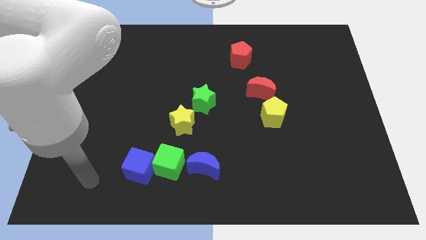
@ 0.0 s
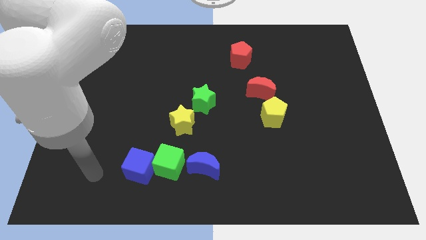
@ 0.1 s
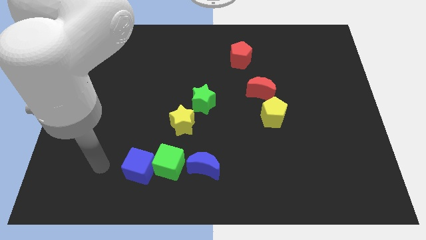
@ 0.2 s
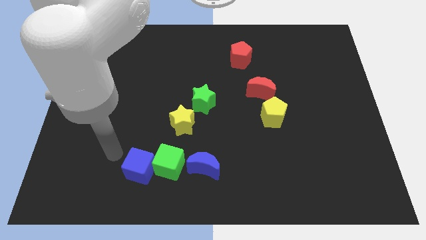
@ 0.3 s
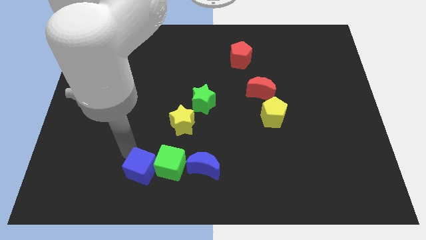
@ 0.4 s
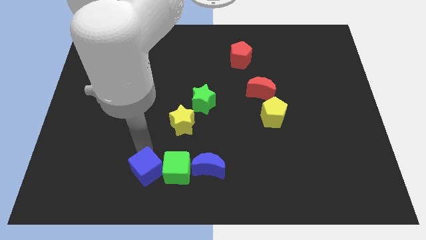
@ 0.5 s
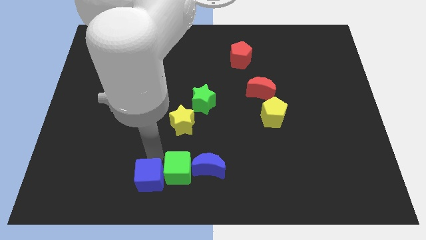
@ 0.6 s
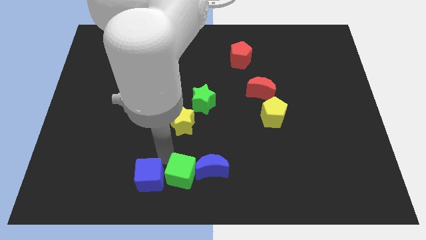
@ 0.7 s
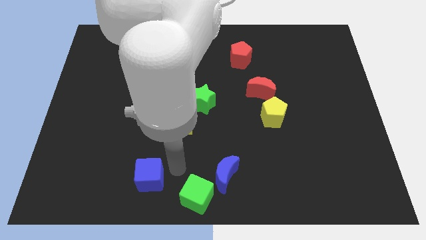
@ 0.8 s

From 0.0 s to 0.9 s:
pull the blue cube apart from the green cube

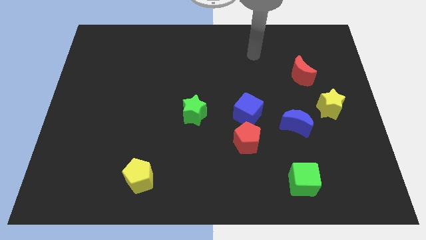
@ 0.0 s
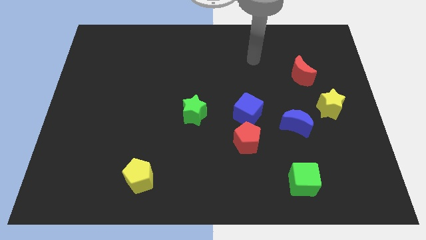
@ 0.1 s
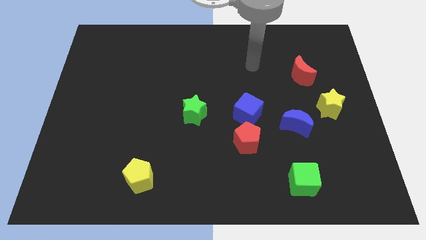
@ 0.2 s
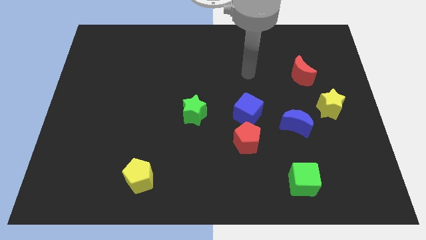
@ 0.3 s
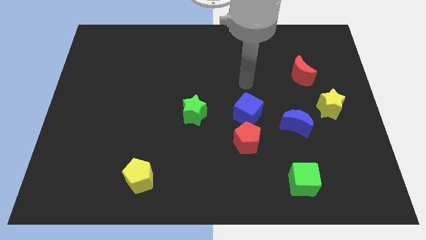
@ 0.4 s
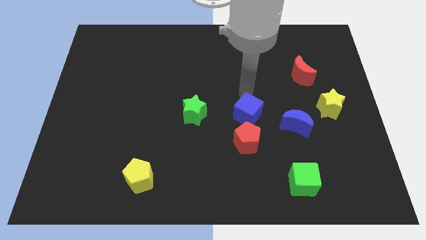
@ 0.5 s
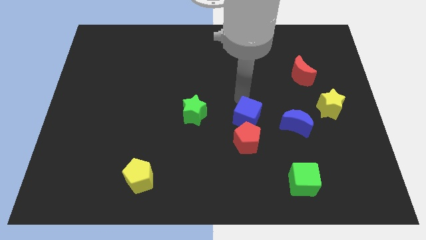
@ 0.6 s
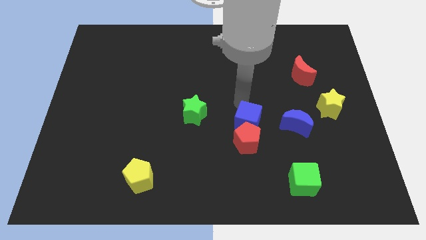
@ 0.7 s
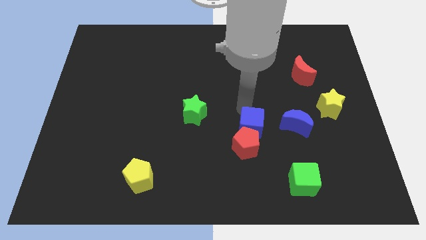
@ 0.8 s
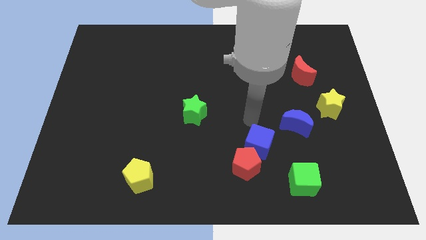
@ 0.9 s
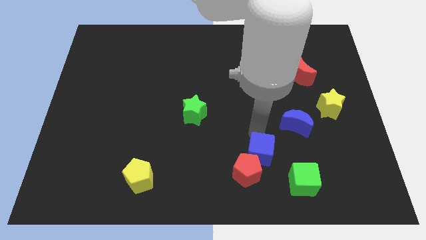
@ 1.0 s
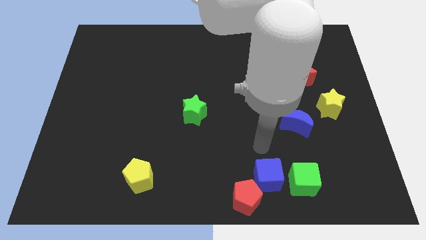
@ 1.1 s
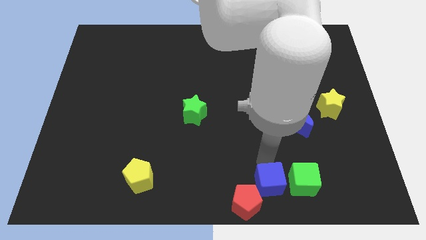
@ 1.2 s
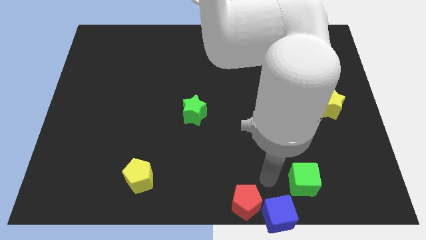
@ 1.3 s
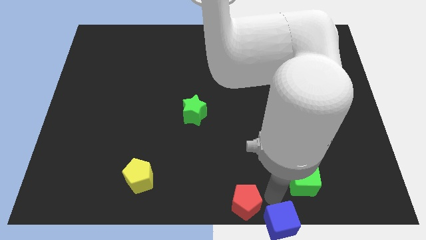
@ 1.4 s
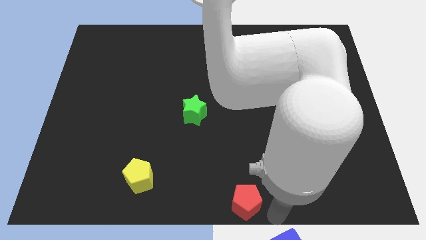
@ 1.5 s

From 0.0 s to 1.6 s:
separate the red pentagon from the blue cube

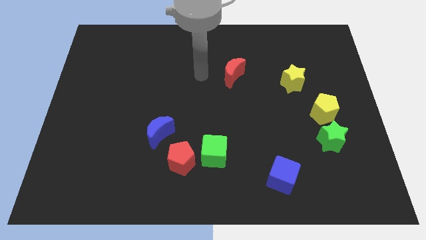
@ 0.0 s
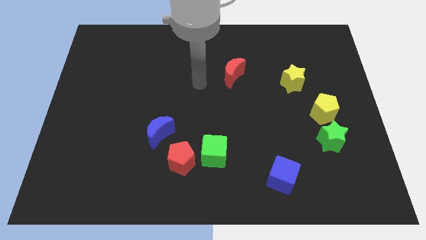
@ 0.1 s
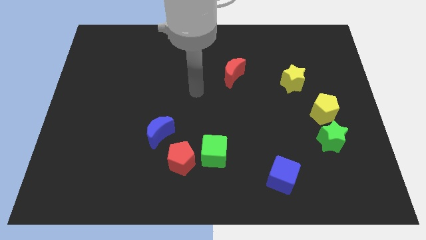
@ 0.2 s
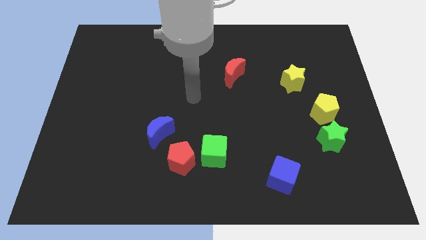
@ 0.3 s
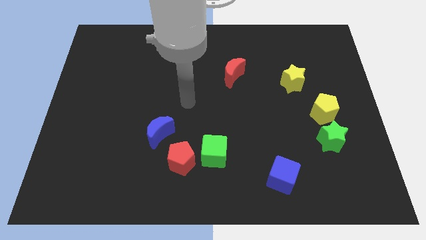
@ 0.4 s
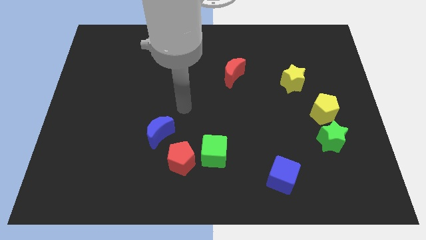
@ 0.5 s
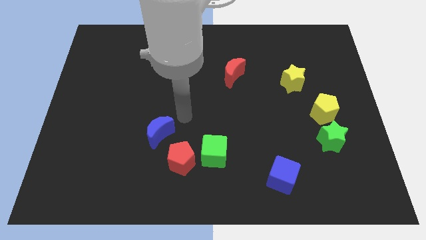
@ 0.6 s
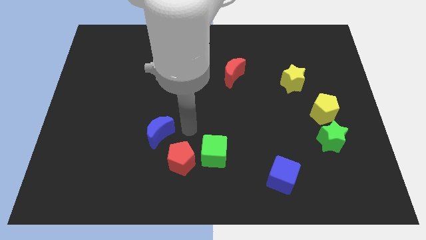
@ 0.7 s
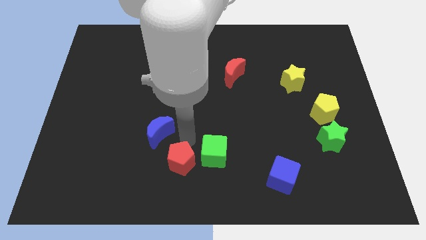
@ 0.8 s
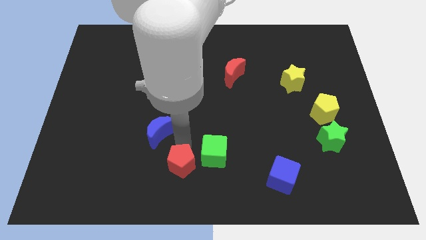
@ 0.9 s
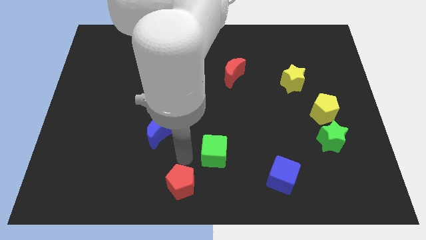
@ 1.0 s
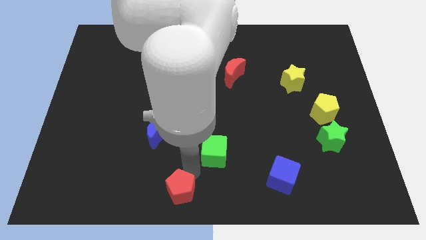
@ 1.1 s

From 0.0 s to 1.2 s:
move the green cube away from the red pentagon

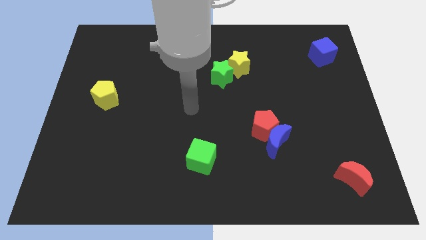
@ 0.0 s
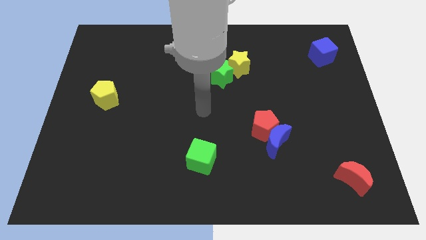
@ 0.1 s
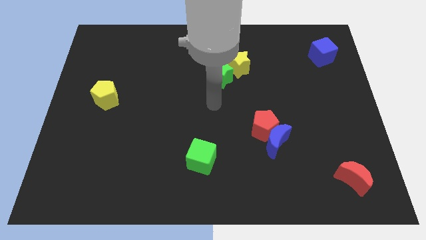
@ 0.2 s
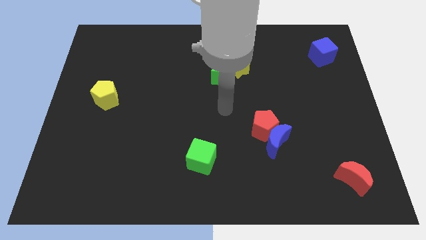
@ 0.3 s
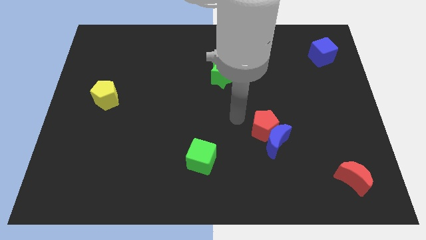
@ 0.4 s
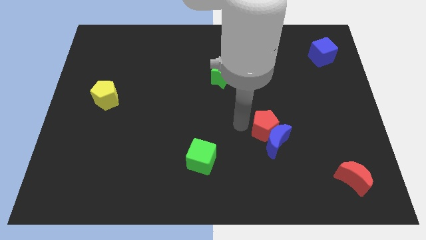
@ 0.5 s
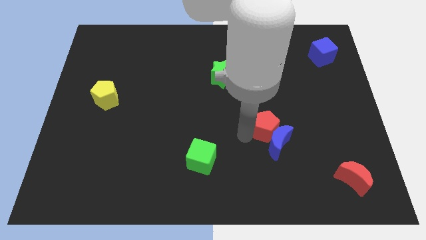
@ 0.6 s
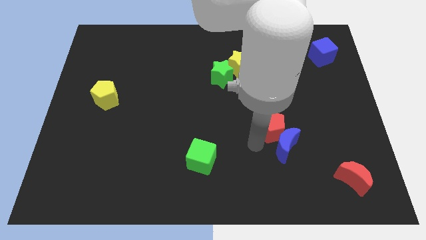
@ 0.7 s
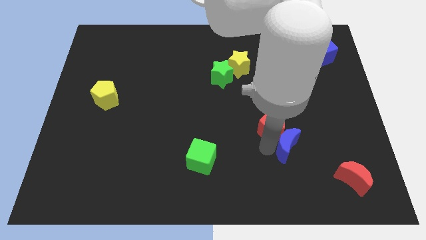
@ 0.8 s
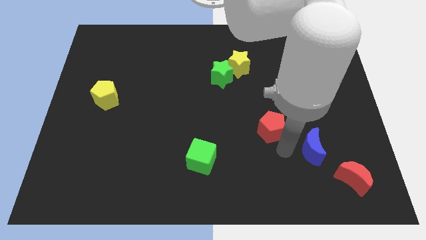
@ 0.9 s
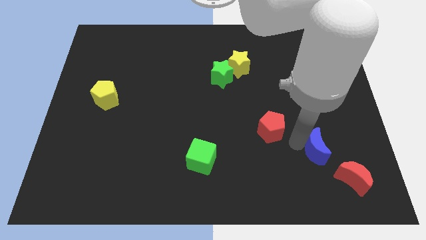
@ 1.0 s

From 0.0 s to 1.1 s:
pull the red pentagon apart from the blue moon

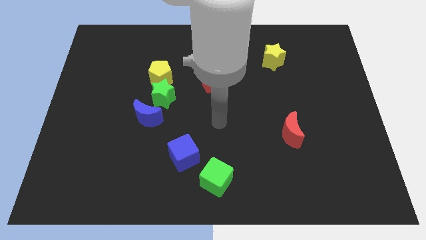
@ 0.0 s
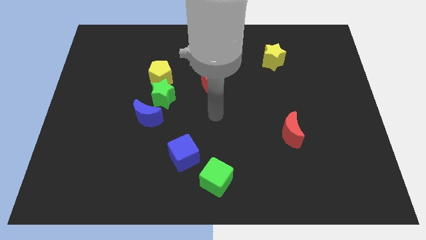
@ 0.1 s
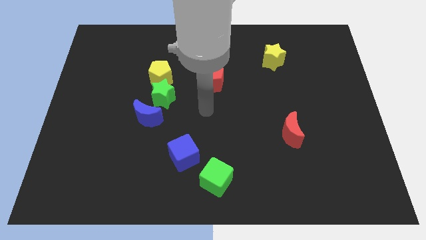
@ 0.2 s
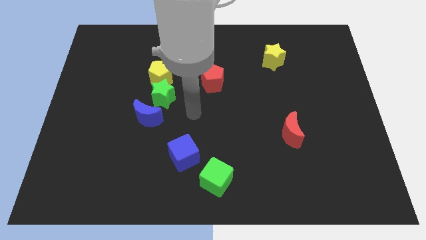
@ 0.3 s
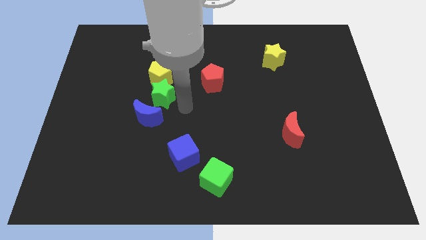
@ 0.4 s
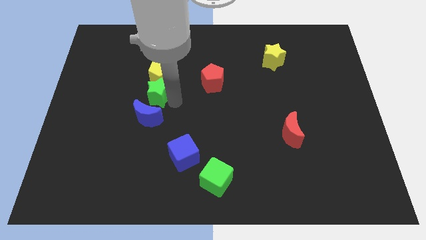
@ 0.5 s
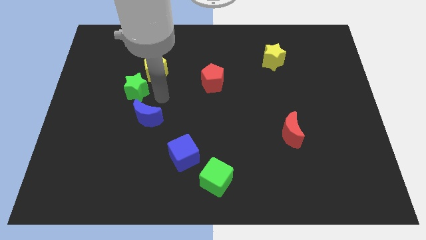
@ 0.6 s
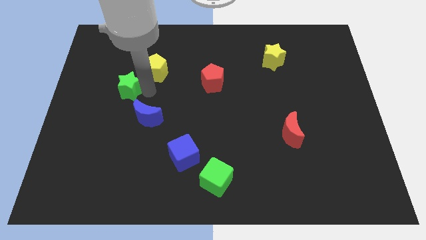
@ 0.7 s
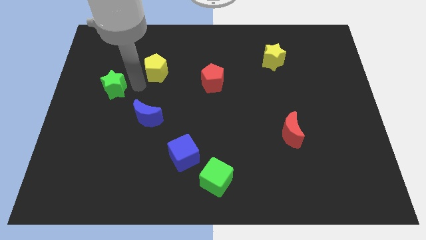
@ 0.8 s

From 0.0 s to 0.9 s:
pull the yellow pentagon apart from the green star

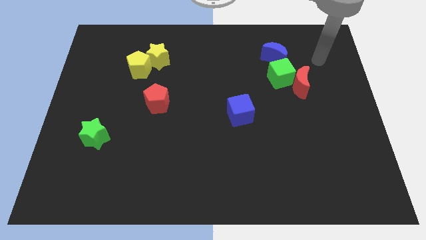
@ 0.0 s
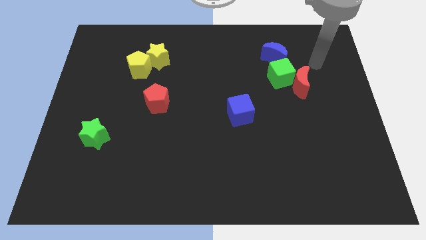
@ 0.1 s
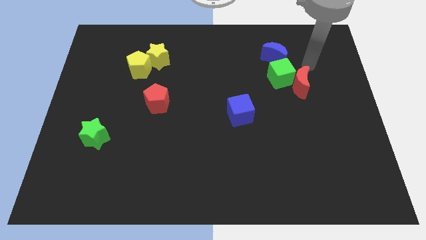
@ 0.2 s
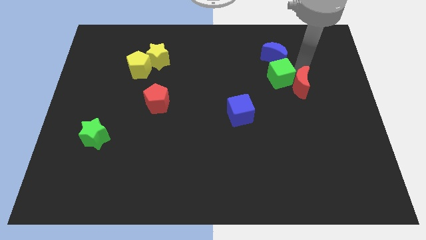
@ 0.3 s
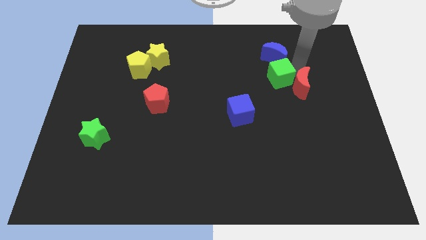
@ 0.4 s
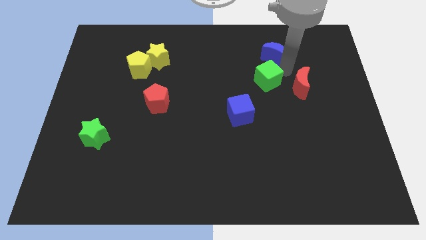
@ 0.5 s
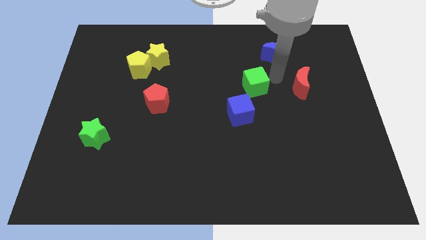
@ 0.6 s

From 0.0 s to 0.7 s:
pull the red moon apart from the green cube

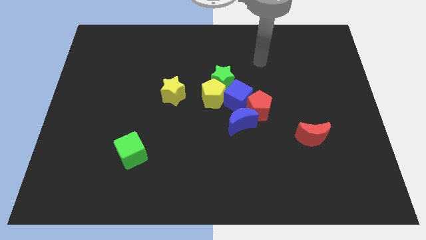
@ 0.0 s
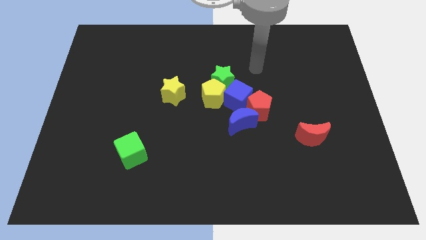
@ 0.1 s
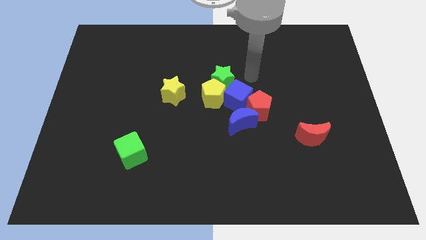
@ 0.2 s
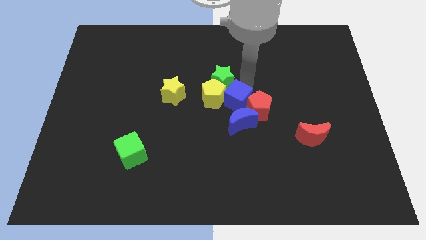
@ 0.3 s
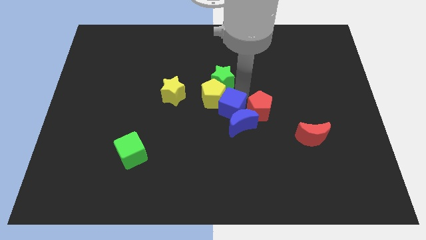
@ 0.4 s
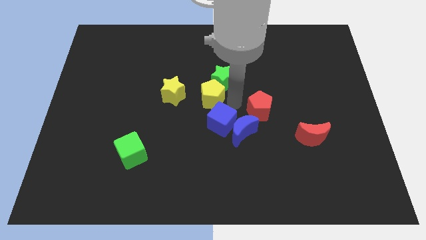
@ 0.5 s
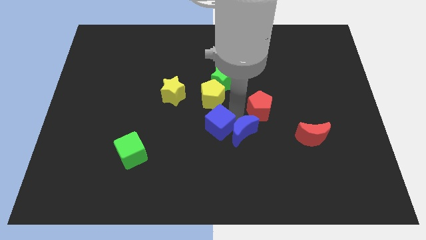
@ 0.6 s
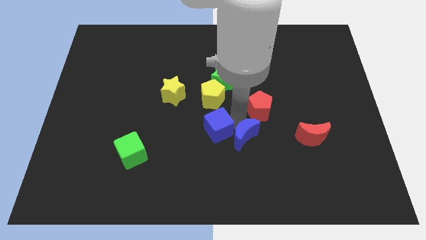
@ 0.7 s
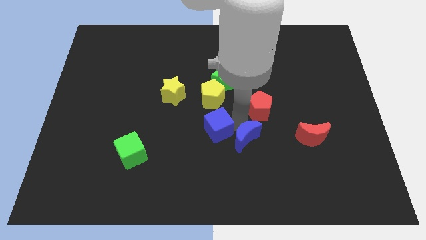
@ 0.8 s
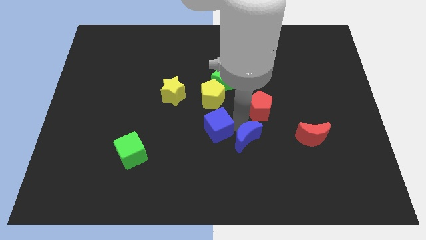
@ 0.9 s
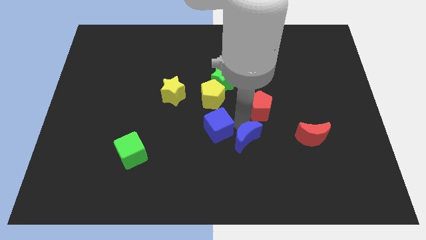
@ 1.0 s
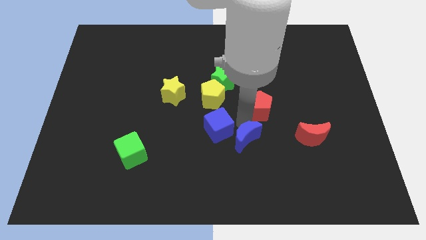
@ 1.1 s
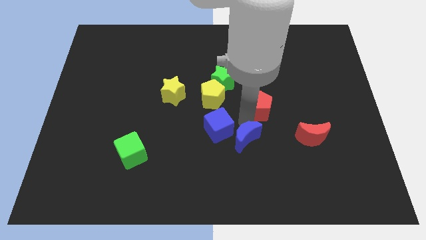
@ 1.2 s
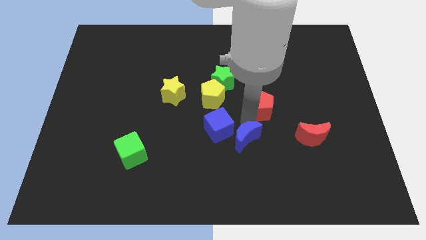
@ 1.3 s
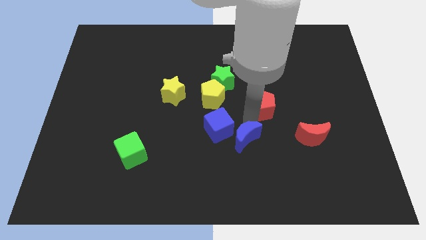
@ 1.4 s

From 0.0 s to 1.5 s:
pull the red pentagon apart from the blue cube and blue moon

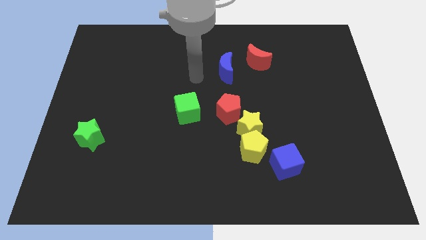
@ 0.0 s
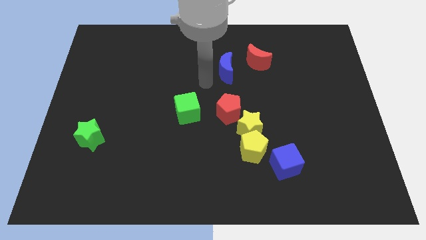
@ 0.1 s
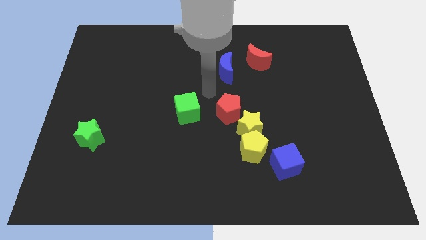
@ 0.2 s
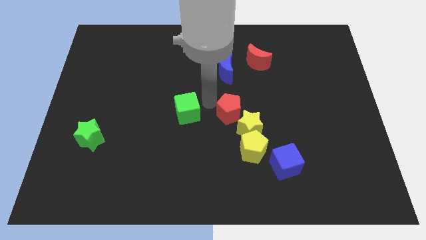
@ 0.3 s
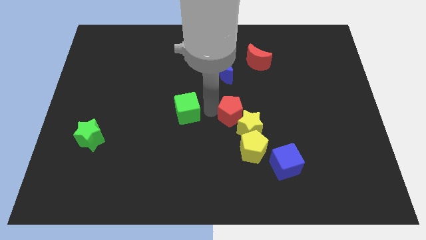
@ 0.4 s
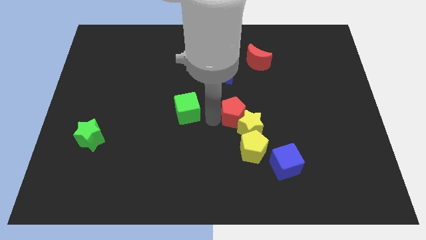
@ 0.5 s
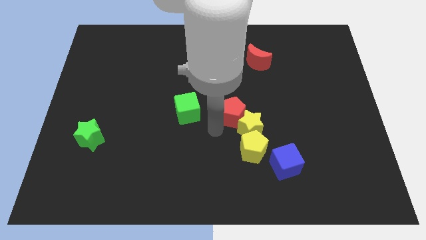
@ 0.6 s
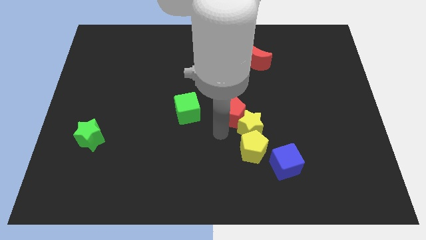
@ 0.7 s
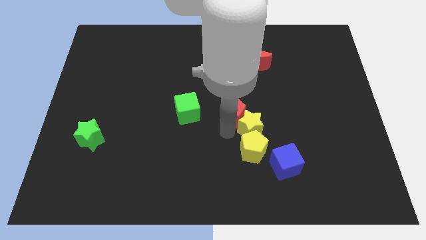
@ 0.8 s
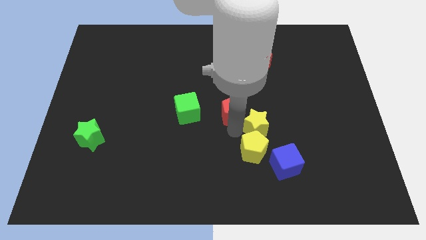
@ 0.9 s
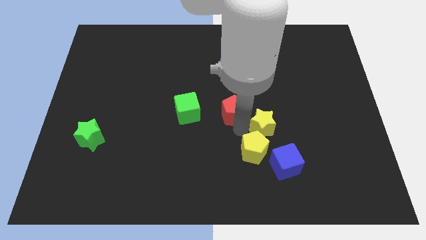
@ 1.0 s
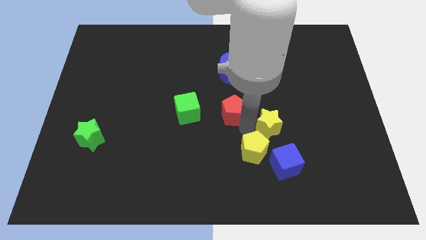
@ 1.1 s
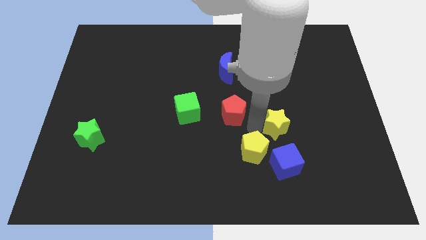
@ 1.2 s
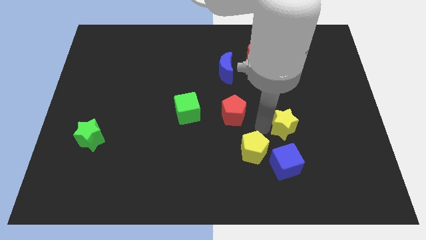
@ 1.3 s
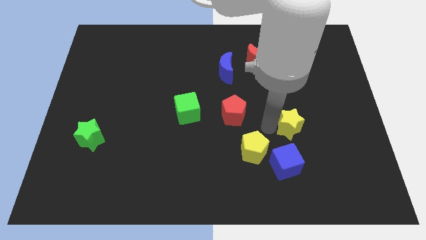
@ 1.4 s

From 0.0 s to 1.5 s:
move the yellow star away from the yellow pentagon and red pentagon
